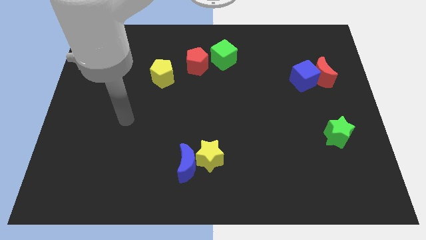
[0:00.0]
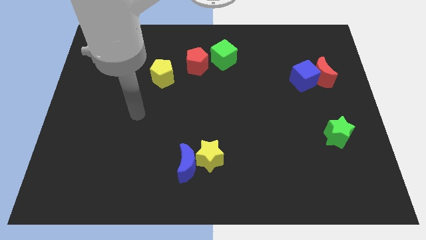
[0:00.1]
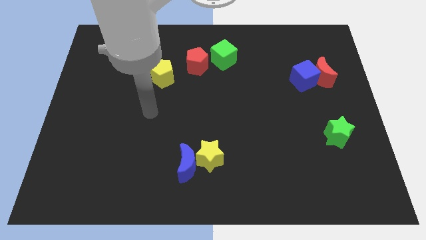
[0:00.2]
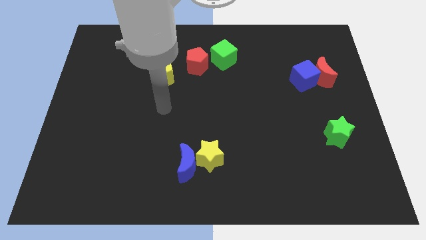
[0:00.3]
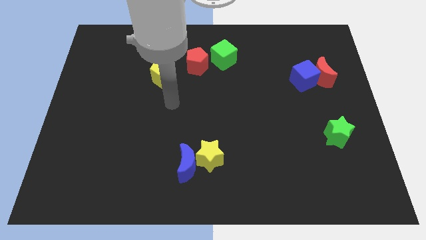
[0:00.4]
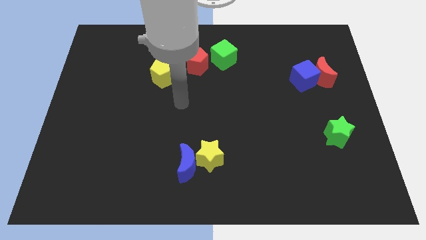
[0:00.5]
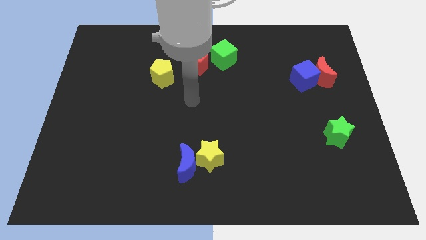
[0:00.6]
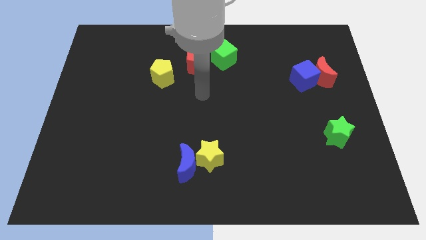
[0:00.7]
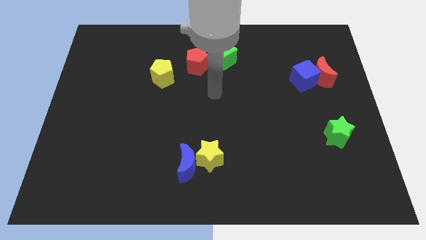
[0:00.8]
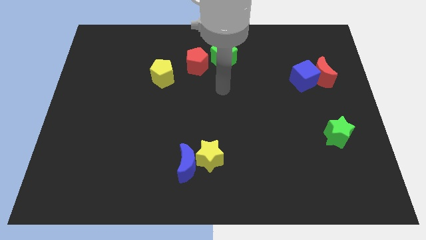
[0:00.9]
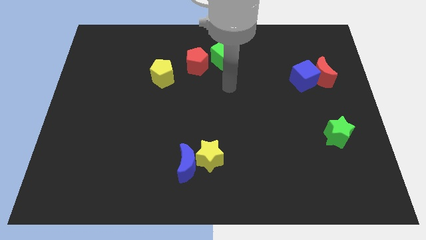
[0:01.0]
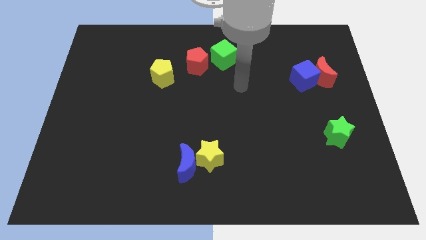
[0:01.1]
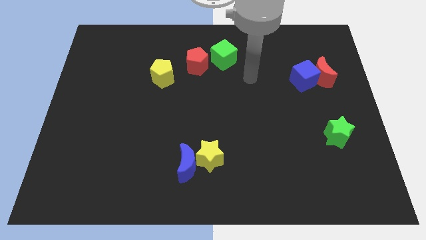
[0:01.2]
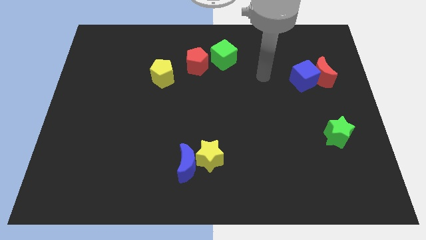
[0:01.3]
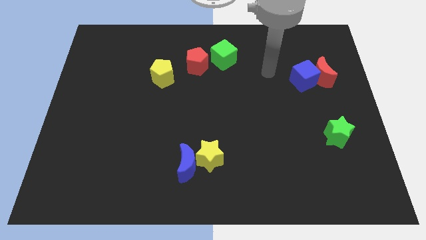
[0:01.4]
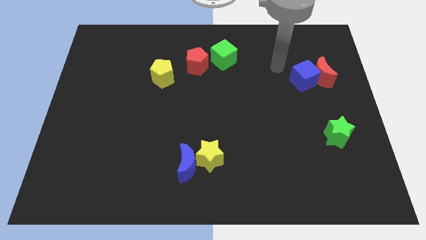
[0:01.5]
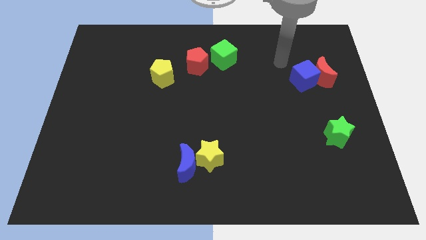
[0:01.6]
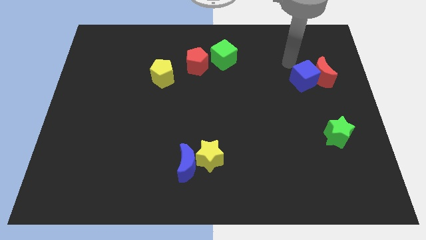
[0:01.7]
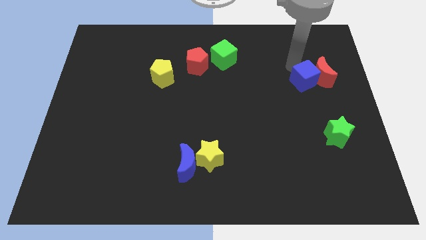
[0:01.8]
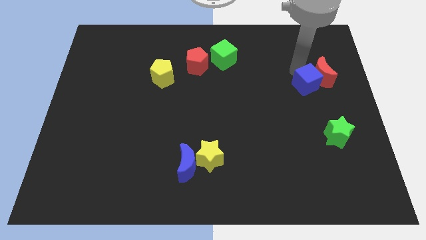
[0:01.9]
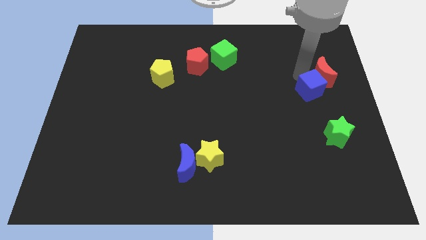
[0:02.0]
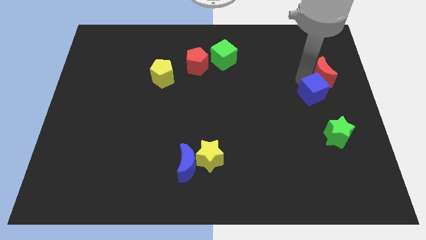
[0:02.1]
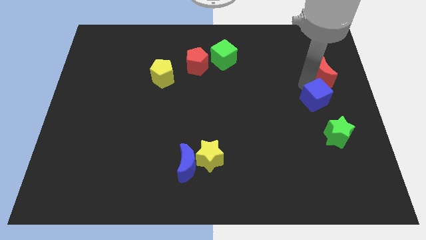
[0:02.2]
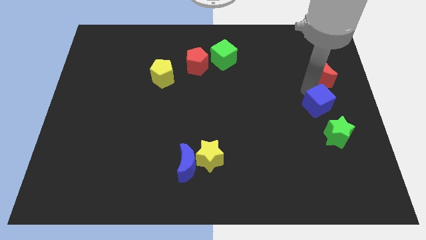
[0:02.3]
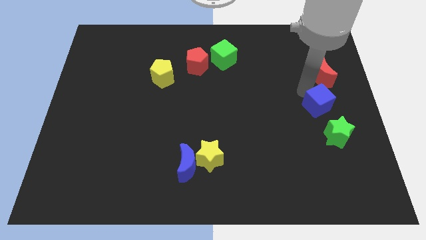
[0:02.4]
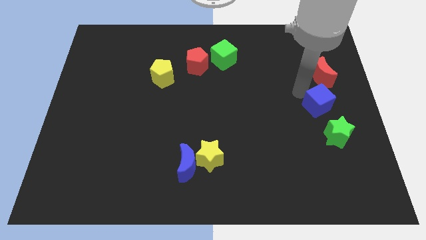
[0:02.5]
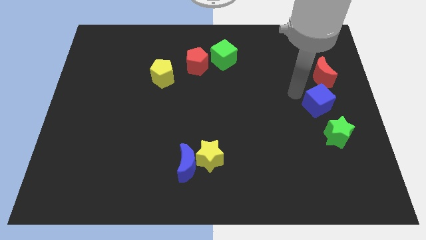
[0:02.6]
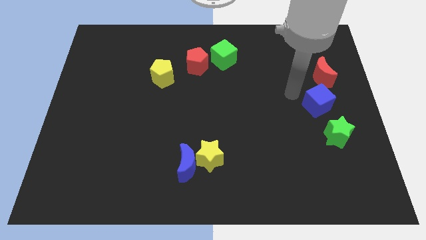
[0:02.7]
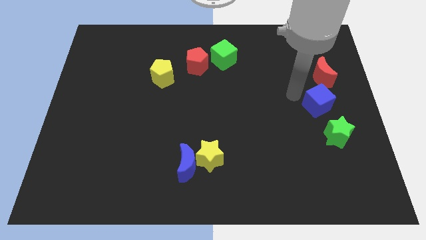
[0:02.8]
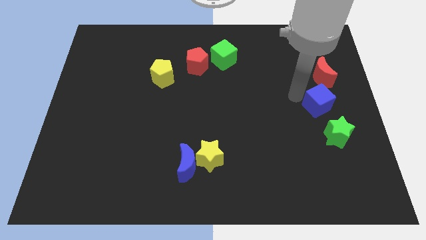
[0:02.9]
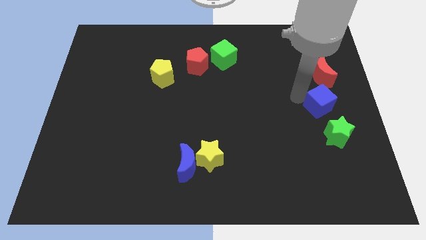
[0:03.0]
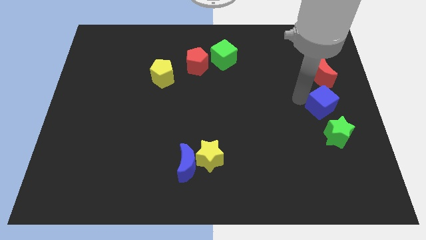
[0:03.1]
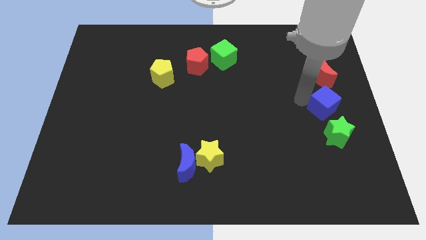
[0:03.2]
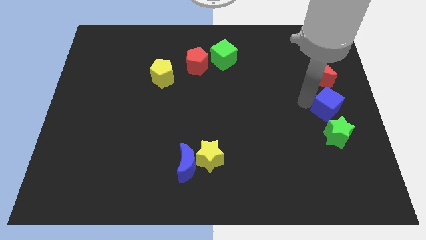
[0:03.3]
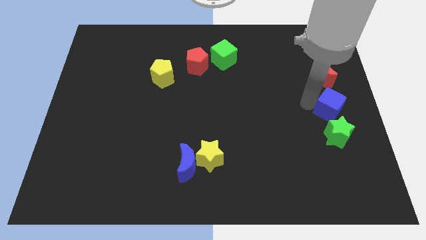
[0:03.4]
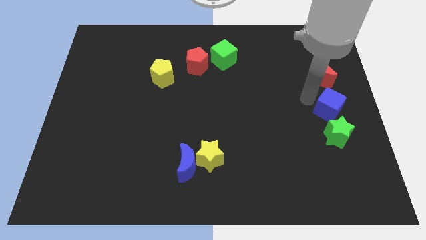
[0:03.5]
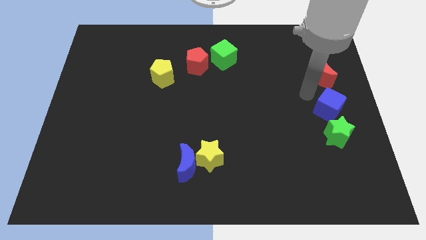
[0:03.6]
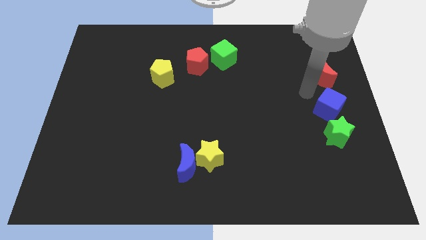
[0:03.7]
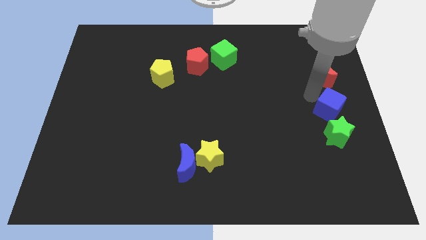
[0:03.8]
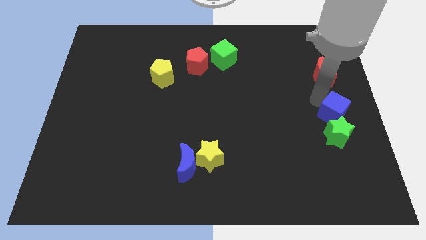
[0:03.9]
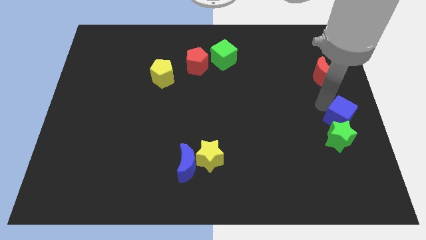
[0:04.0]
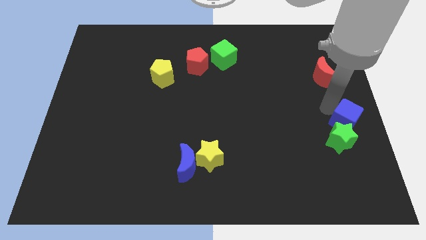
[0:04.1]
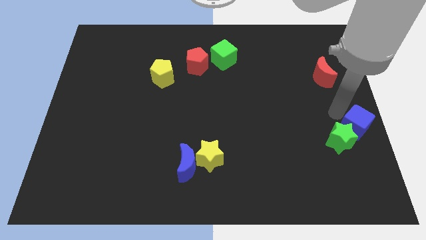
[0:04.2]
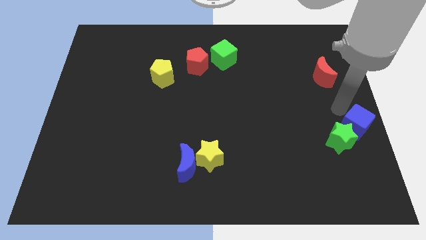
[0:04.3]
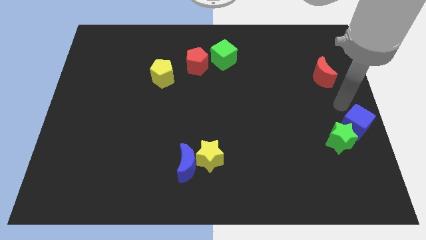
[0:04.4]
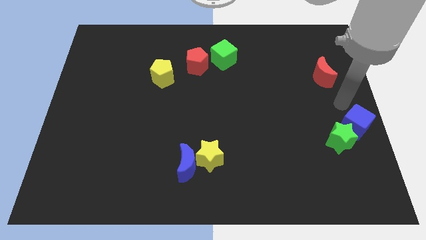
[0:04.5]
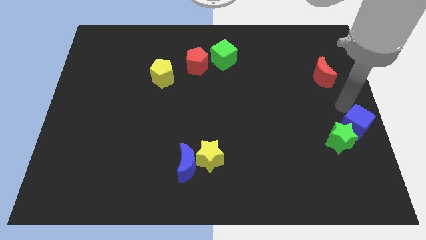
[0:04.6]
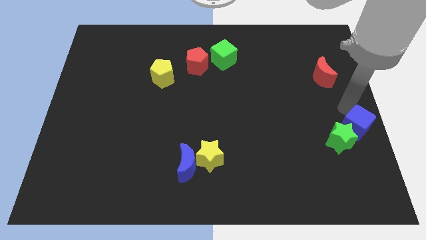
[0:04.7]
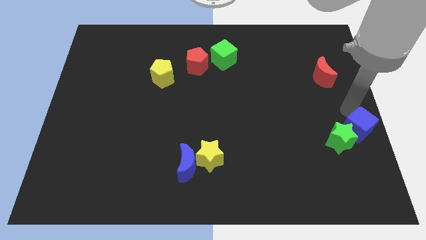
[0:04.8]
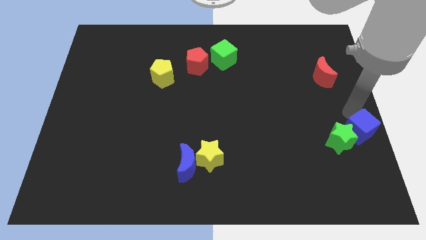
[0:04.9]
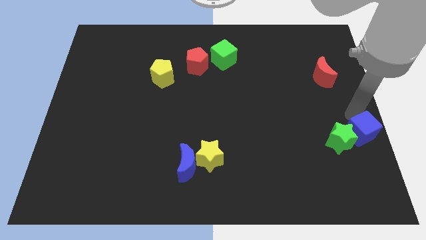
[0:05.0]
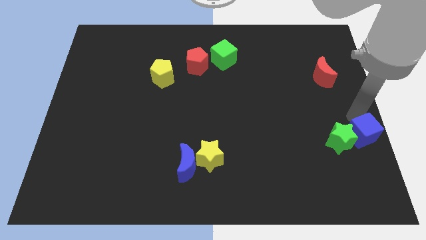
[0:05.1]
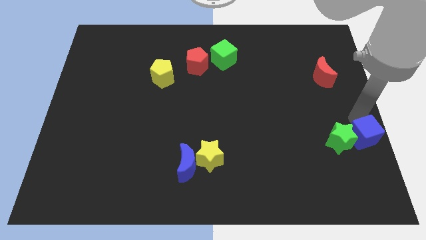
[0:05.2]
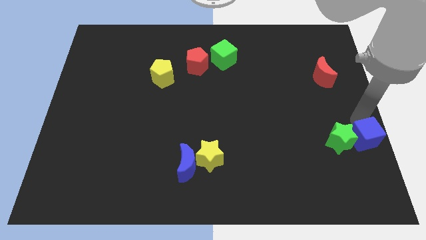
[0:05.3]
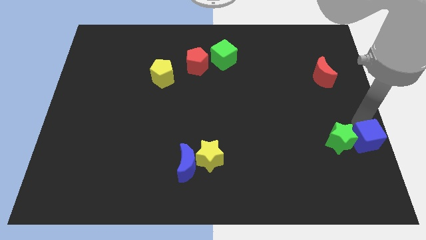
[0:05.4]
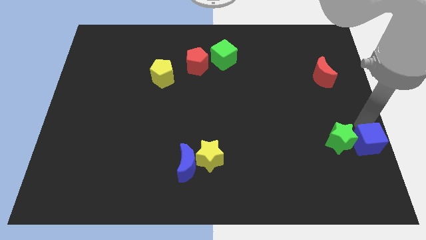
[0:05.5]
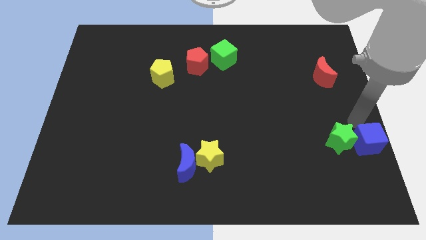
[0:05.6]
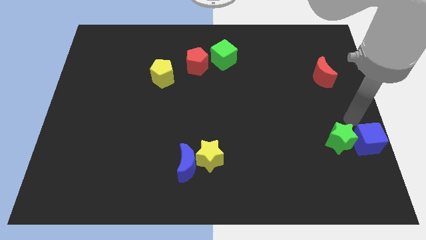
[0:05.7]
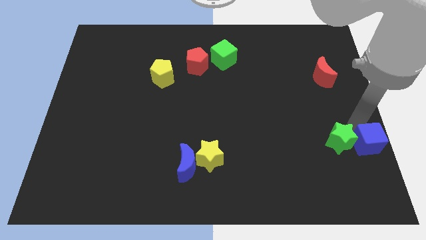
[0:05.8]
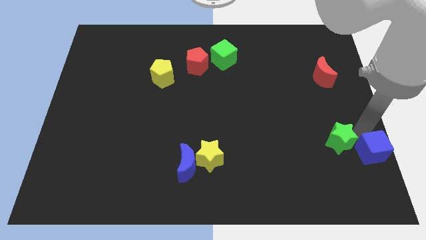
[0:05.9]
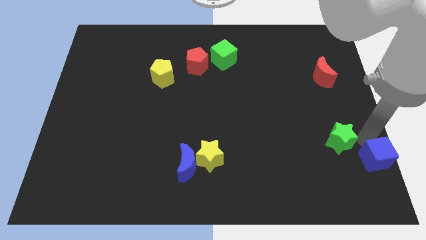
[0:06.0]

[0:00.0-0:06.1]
put the blue cube to the bottom right

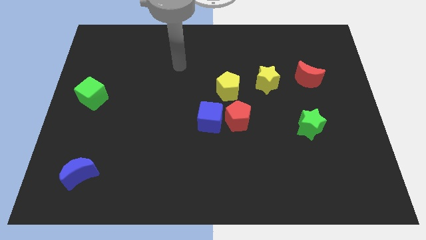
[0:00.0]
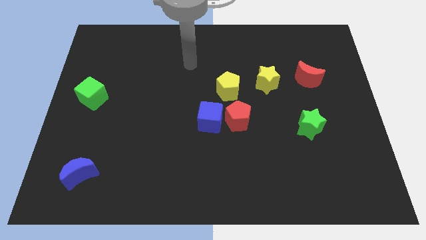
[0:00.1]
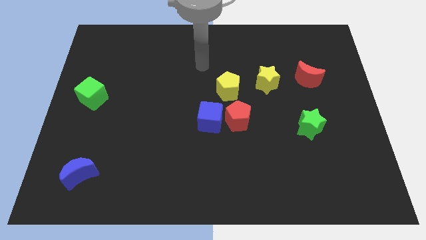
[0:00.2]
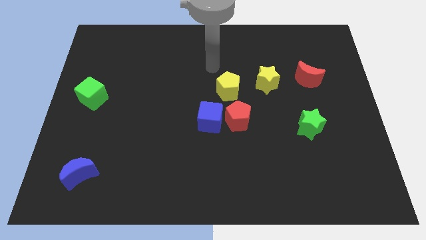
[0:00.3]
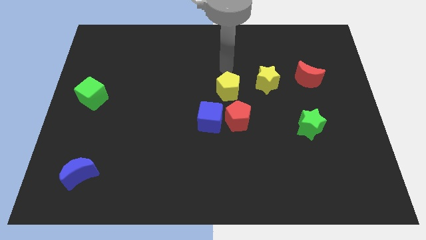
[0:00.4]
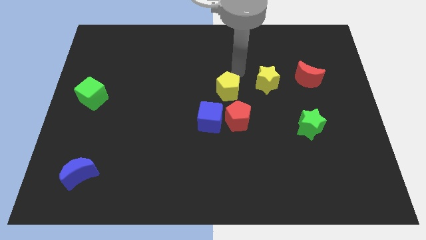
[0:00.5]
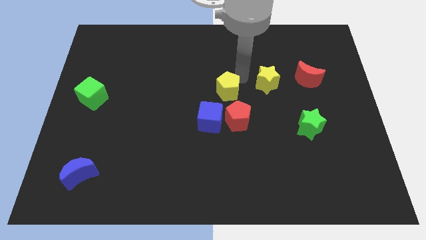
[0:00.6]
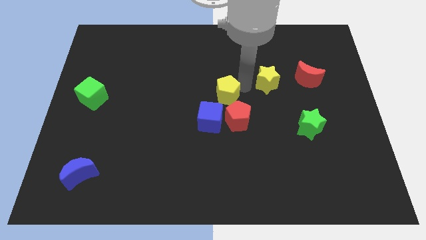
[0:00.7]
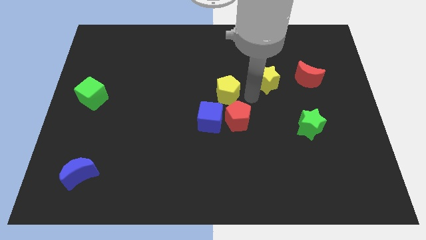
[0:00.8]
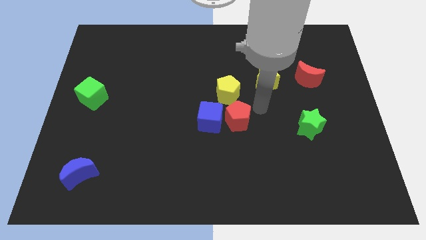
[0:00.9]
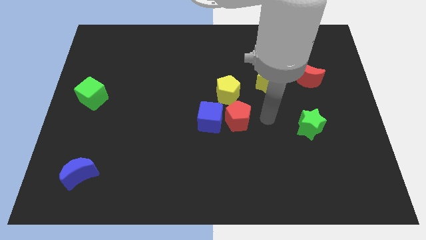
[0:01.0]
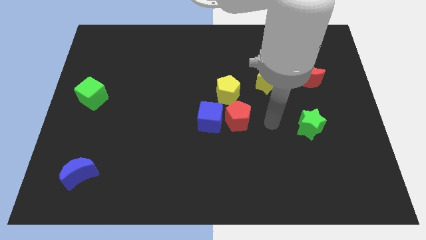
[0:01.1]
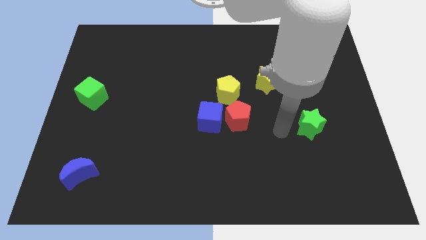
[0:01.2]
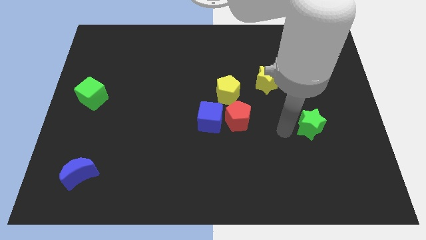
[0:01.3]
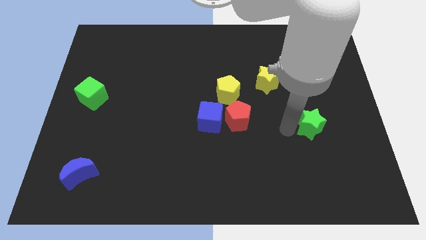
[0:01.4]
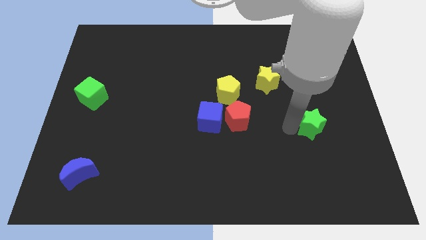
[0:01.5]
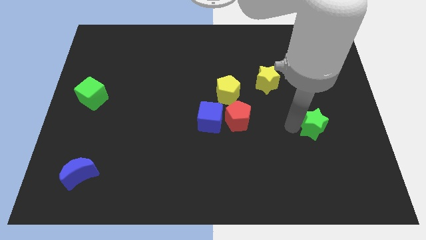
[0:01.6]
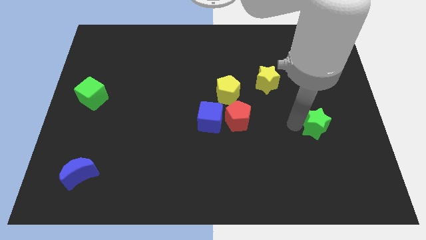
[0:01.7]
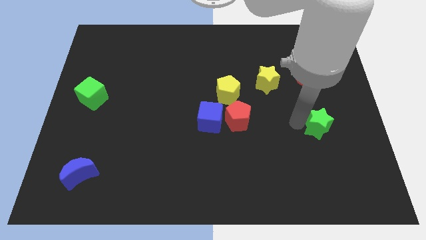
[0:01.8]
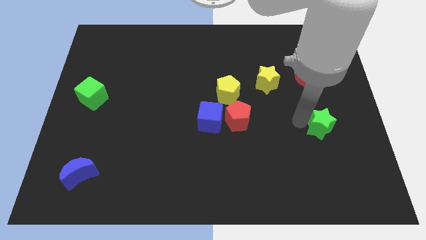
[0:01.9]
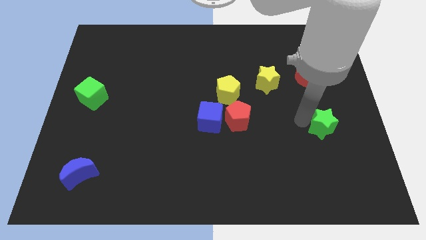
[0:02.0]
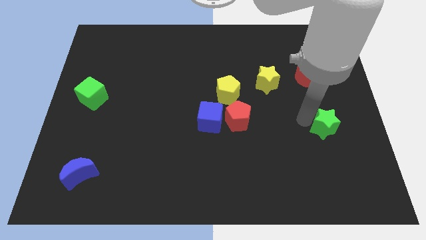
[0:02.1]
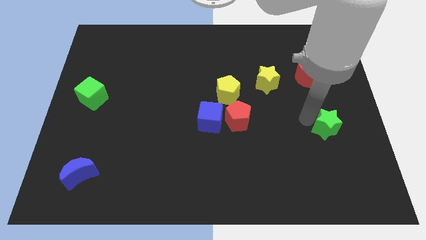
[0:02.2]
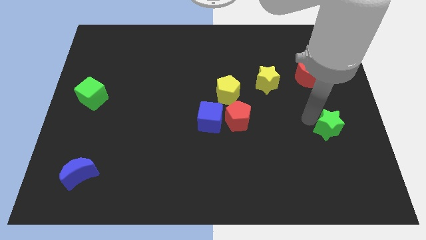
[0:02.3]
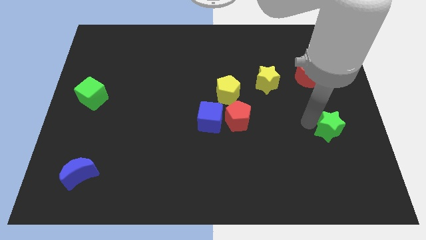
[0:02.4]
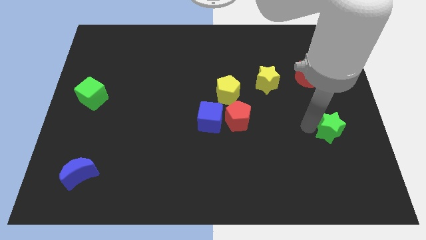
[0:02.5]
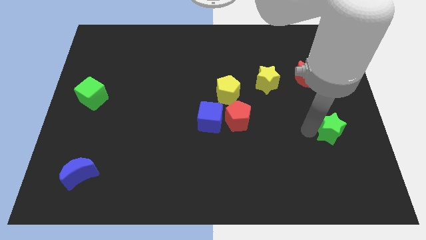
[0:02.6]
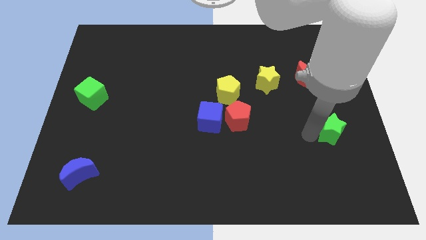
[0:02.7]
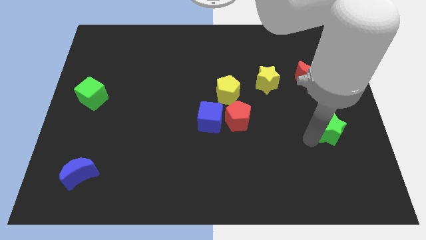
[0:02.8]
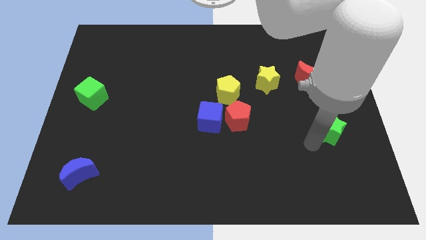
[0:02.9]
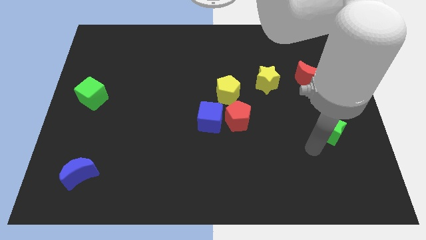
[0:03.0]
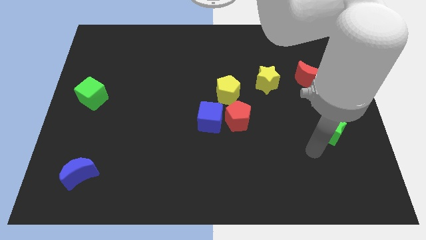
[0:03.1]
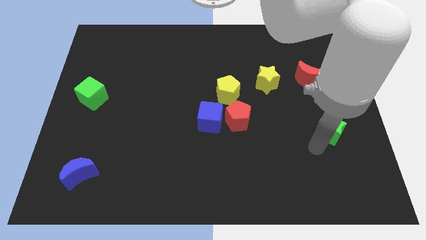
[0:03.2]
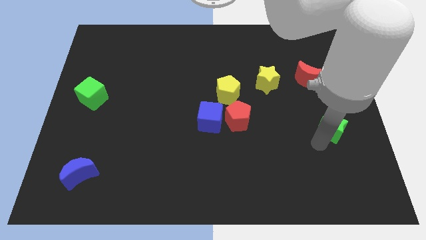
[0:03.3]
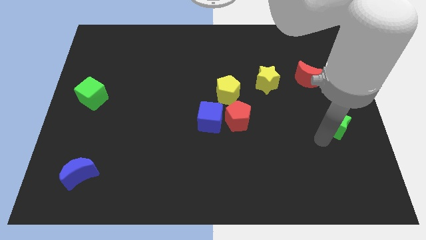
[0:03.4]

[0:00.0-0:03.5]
move the green star to the right side
